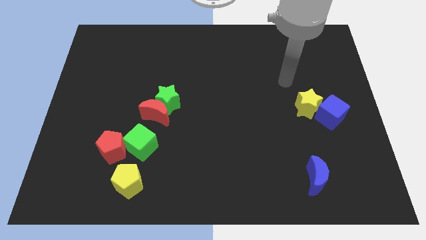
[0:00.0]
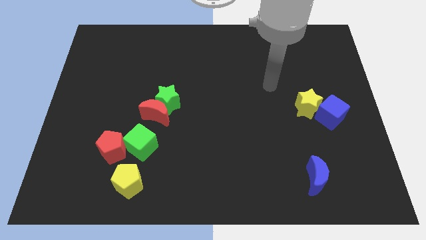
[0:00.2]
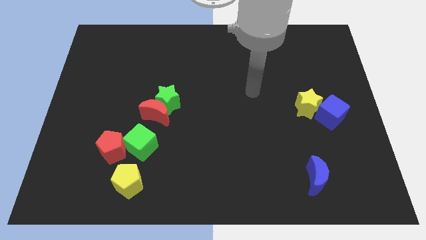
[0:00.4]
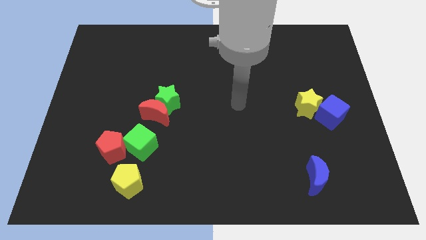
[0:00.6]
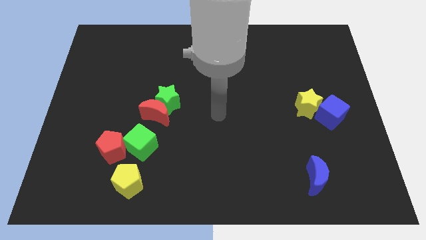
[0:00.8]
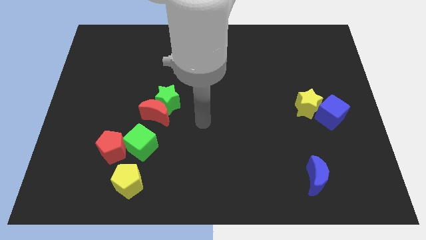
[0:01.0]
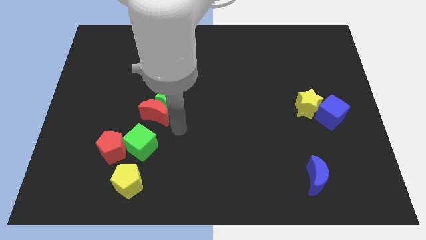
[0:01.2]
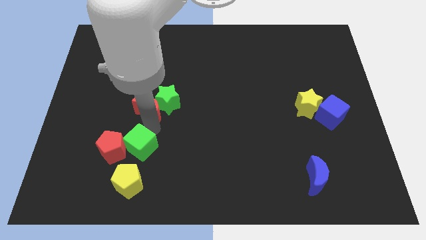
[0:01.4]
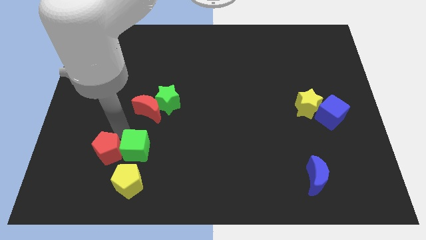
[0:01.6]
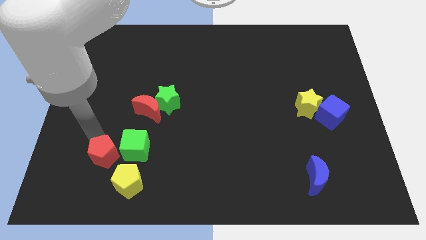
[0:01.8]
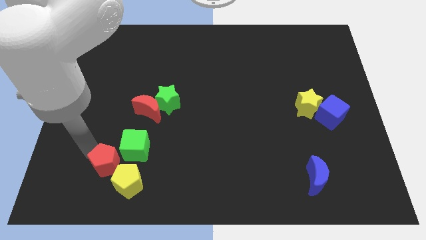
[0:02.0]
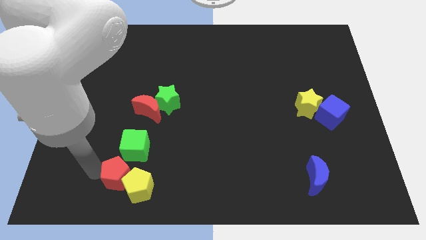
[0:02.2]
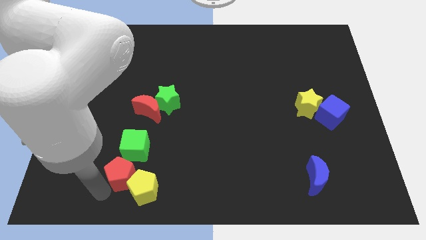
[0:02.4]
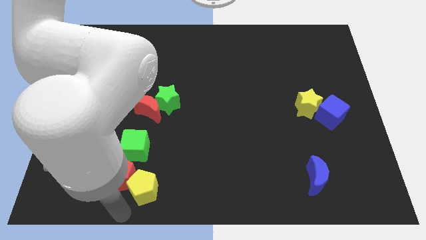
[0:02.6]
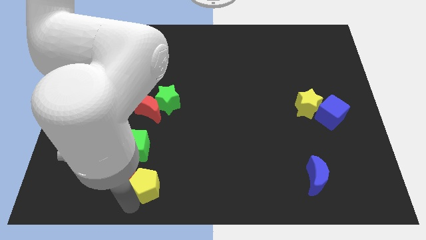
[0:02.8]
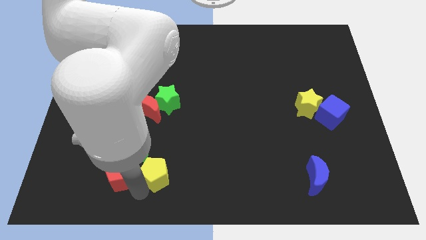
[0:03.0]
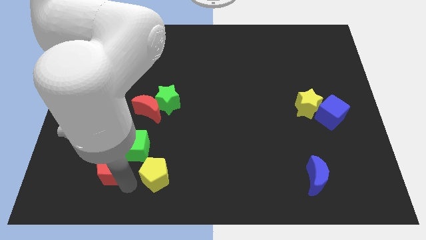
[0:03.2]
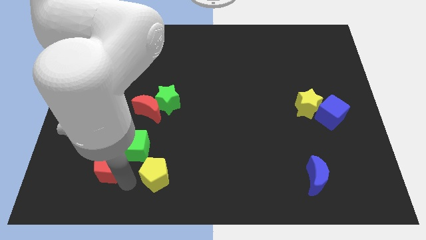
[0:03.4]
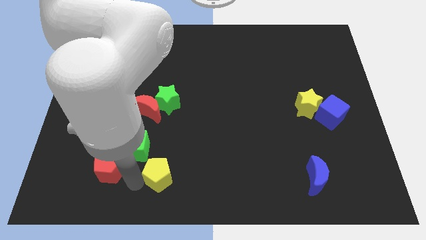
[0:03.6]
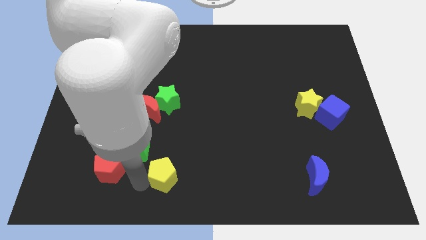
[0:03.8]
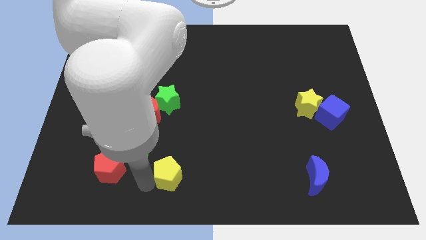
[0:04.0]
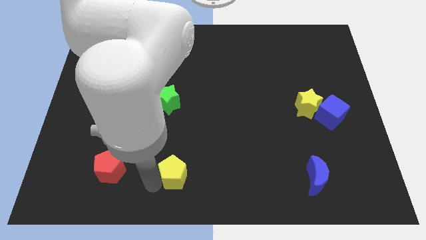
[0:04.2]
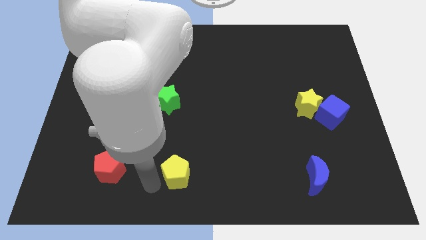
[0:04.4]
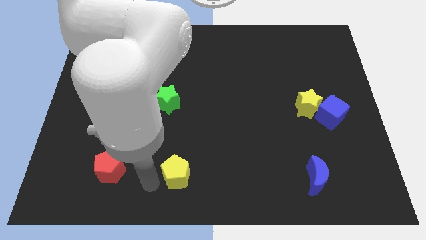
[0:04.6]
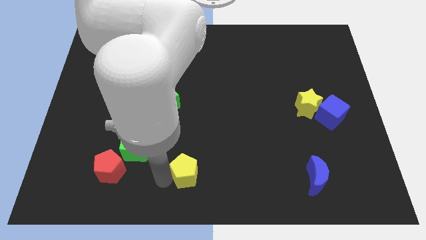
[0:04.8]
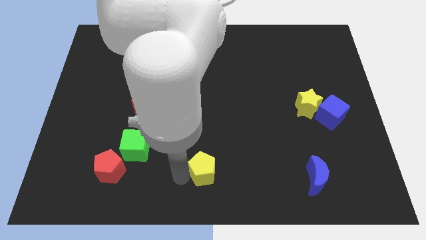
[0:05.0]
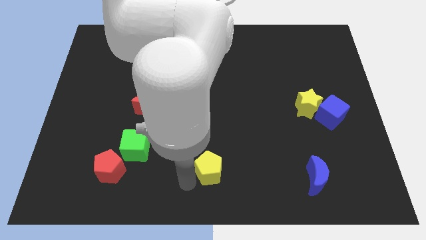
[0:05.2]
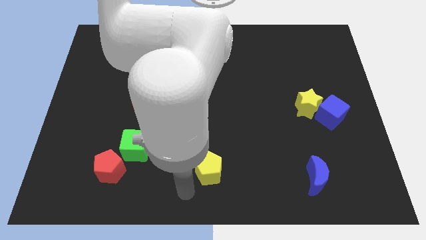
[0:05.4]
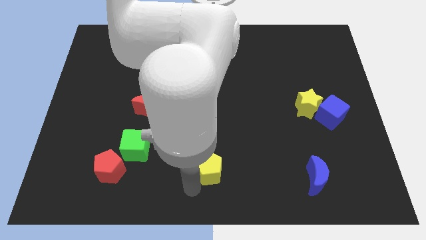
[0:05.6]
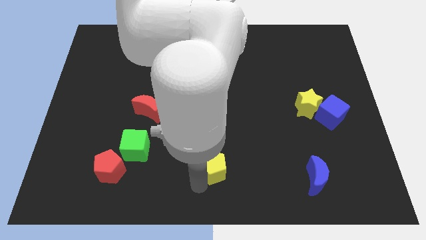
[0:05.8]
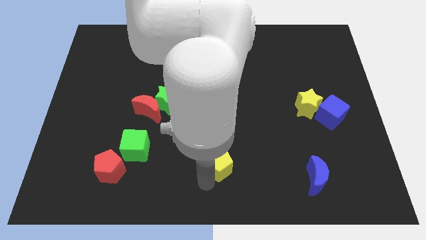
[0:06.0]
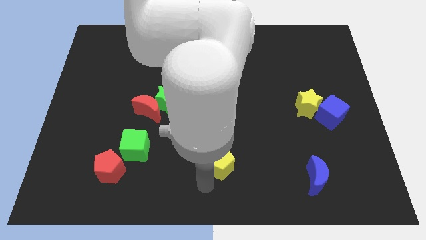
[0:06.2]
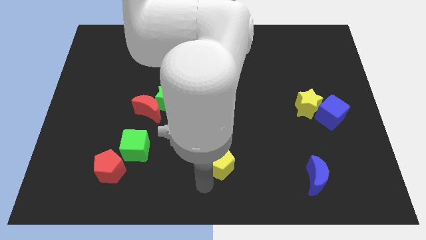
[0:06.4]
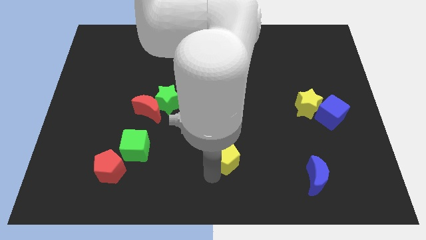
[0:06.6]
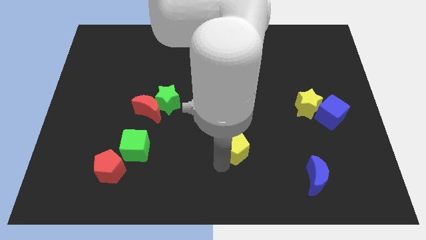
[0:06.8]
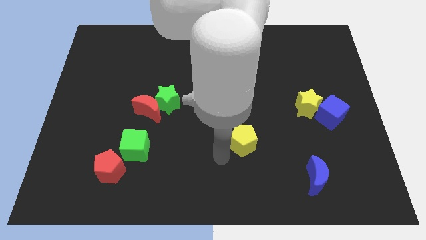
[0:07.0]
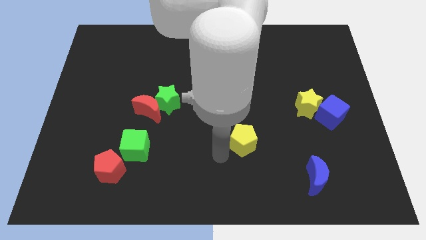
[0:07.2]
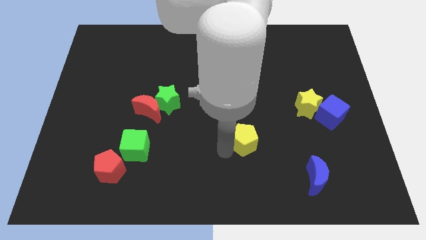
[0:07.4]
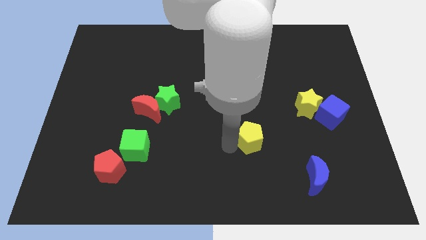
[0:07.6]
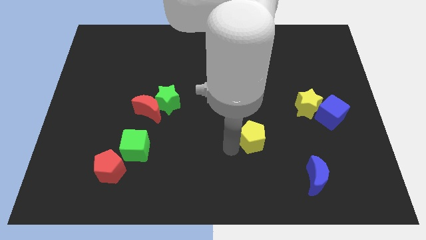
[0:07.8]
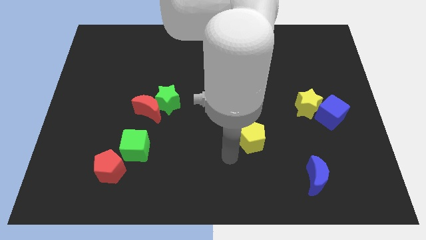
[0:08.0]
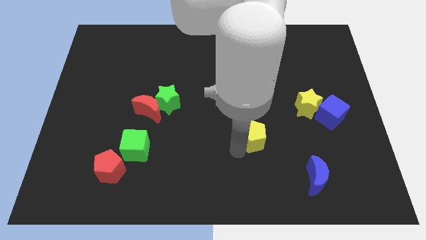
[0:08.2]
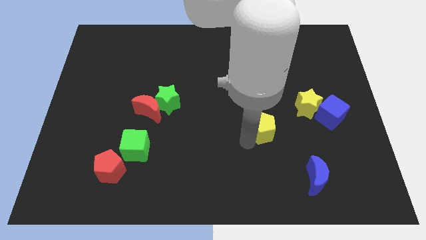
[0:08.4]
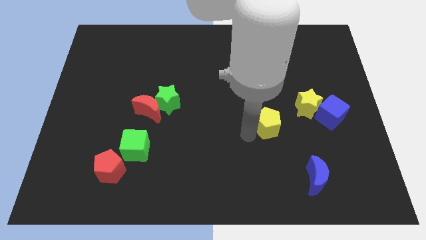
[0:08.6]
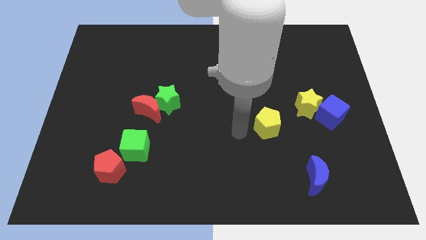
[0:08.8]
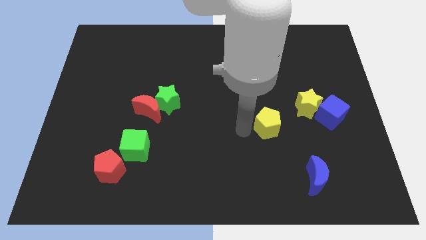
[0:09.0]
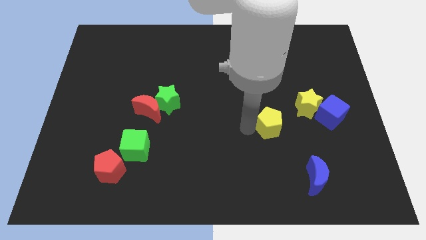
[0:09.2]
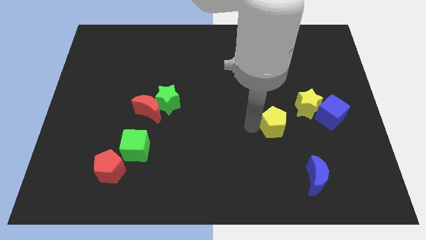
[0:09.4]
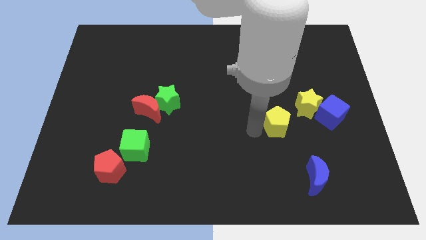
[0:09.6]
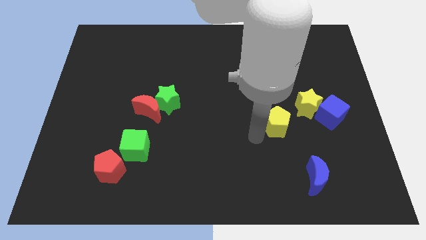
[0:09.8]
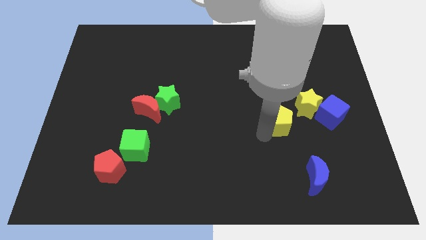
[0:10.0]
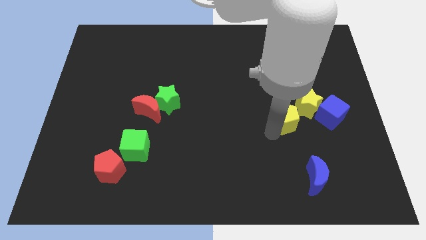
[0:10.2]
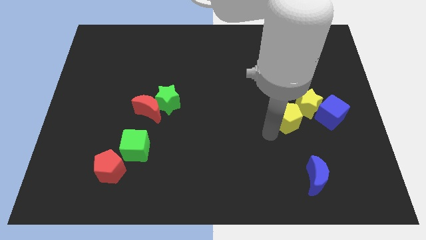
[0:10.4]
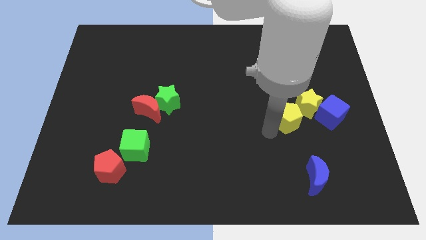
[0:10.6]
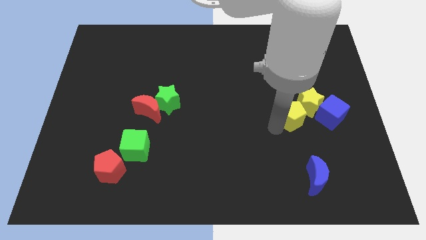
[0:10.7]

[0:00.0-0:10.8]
push the yellow pentagon close to the yellow star

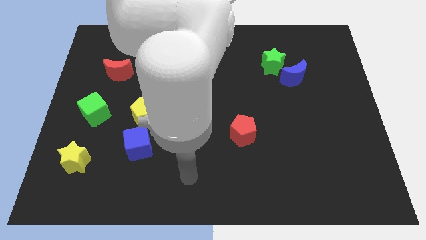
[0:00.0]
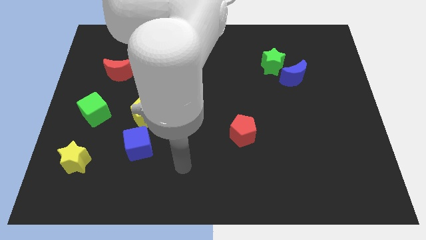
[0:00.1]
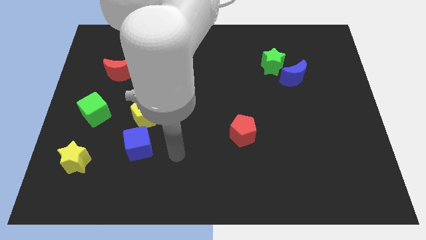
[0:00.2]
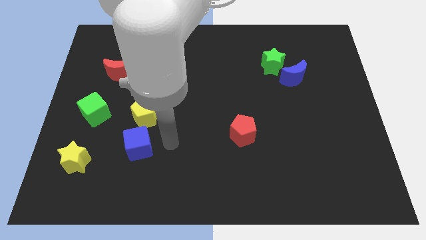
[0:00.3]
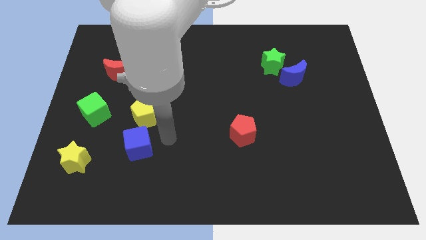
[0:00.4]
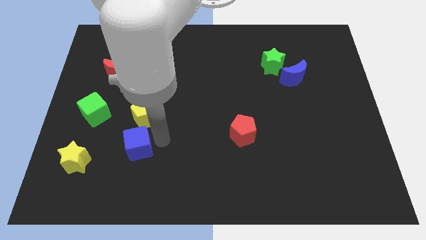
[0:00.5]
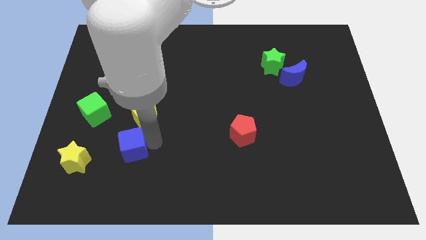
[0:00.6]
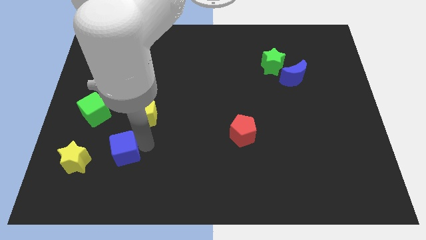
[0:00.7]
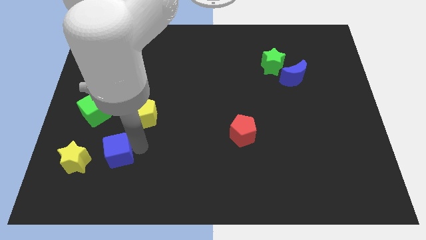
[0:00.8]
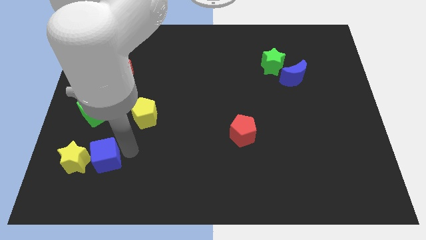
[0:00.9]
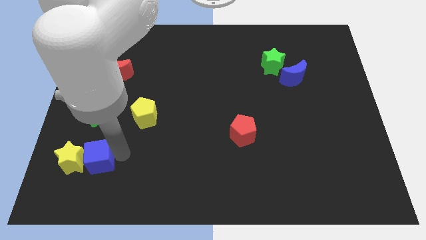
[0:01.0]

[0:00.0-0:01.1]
push the blue cube close to the yellow star

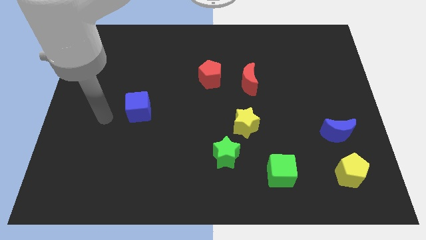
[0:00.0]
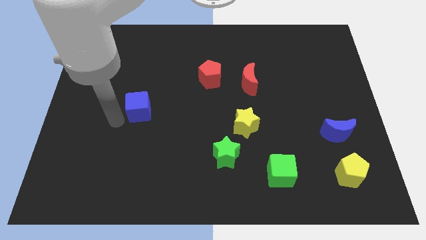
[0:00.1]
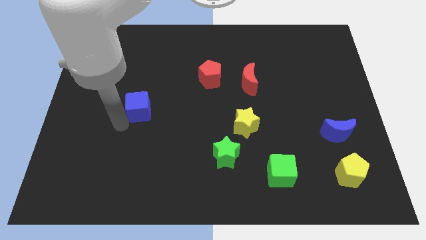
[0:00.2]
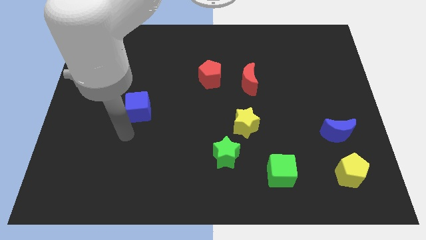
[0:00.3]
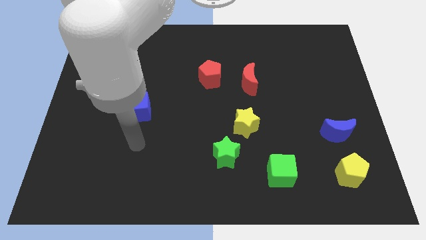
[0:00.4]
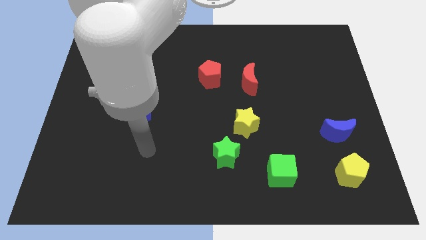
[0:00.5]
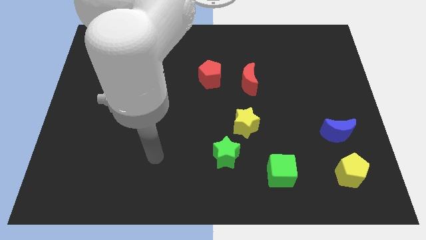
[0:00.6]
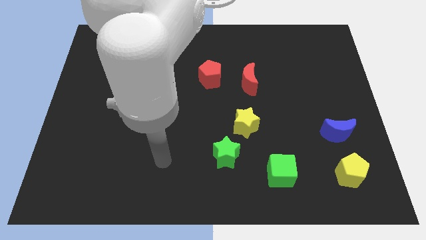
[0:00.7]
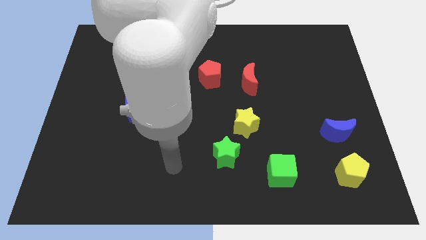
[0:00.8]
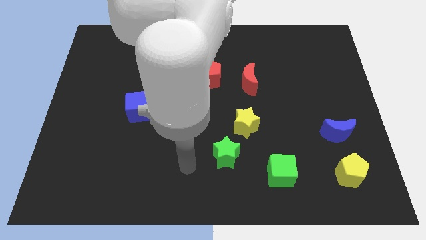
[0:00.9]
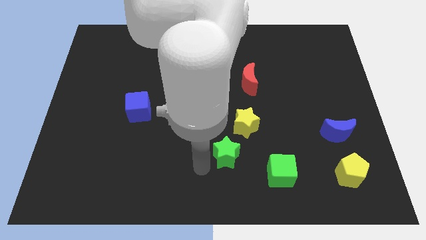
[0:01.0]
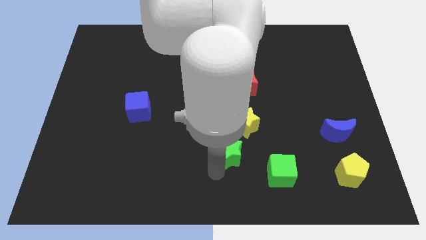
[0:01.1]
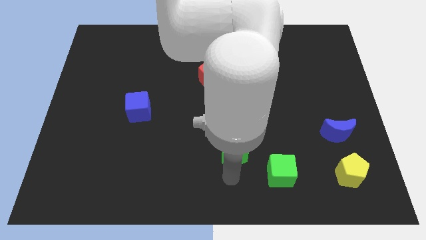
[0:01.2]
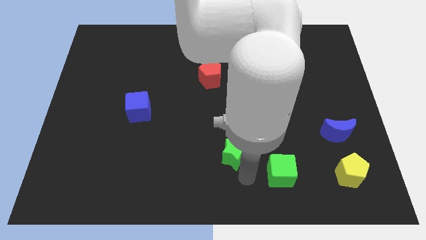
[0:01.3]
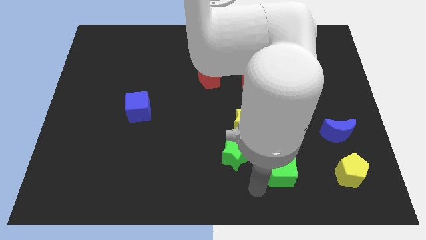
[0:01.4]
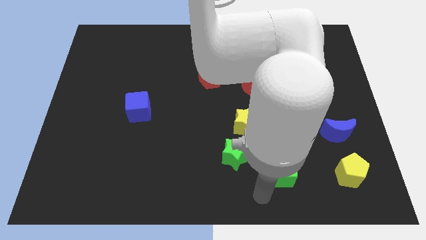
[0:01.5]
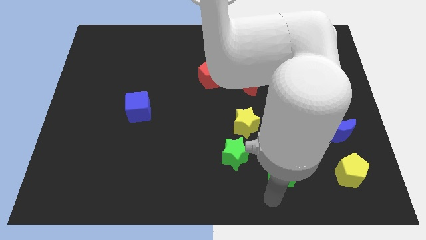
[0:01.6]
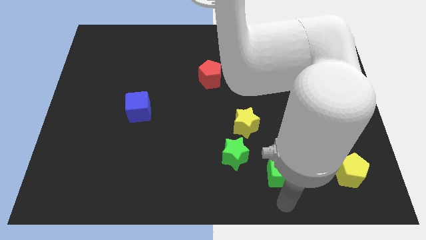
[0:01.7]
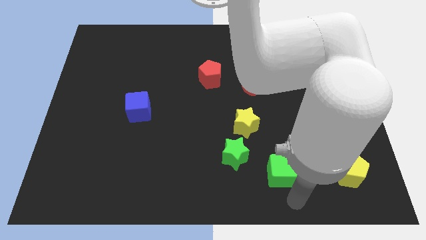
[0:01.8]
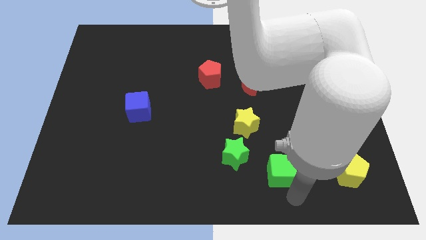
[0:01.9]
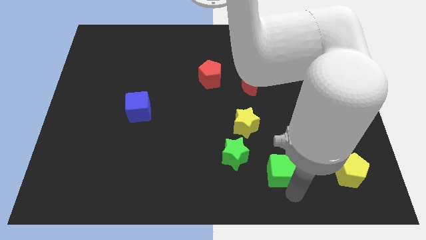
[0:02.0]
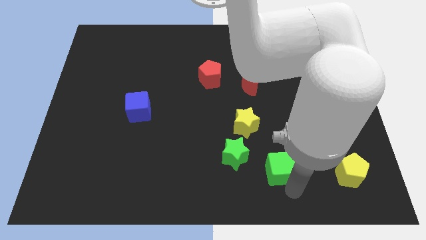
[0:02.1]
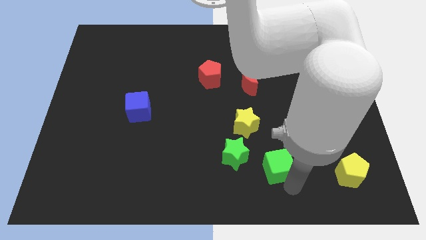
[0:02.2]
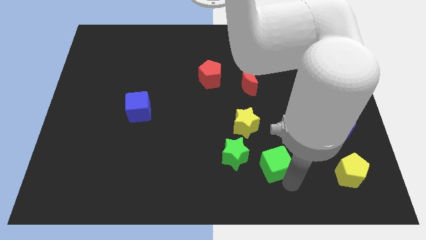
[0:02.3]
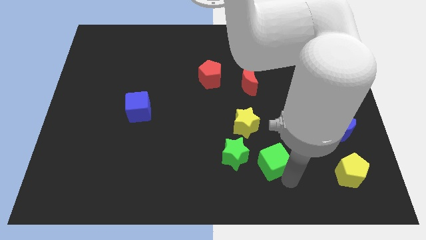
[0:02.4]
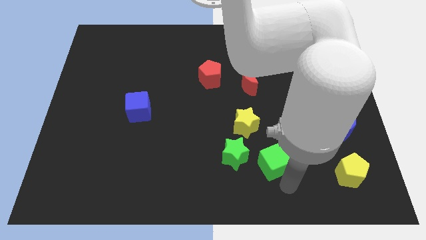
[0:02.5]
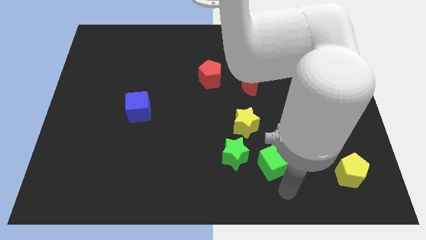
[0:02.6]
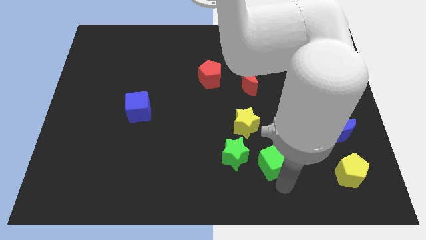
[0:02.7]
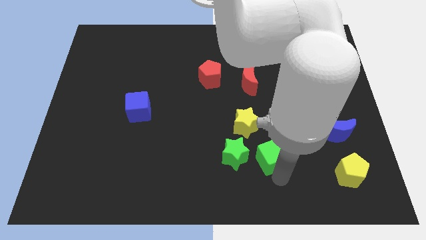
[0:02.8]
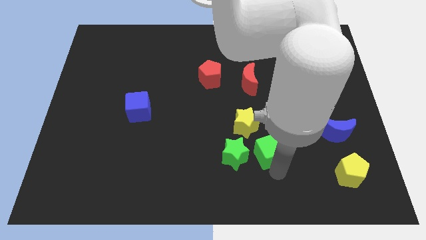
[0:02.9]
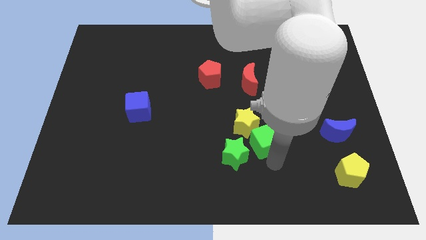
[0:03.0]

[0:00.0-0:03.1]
put the green cube towards the yellow star
